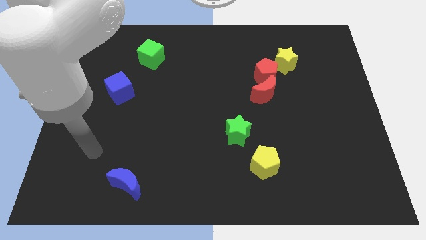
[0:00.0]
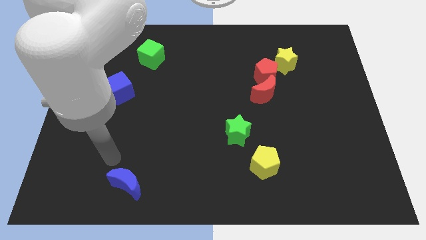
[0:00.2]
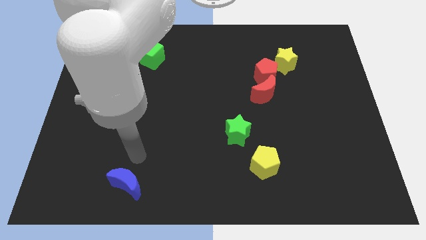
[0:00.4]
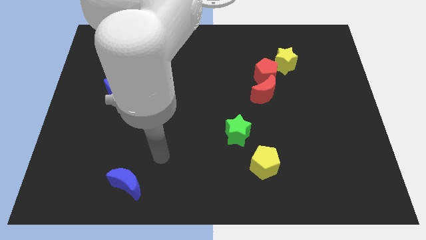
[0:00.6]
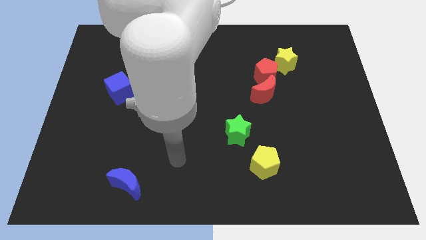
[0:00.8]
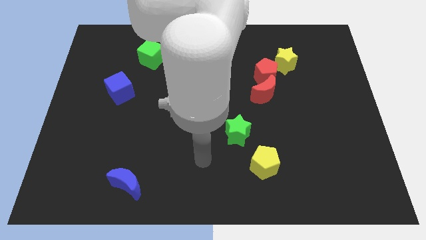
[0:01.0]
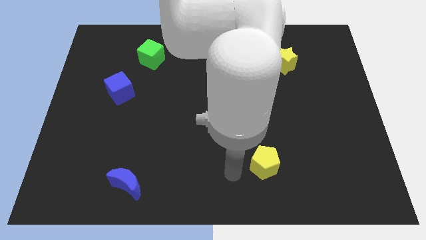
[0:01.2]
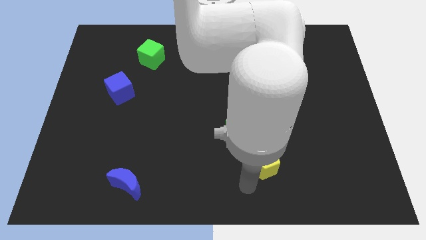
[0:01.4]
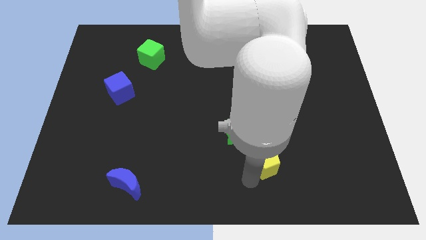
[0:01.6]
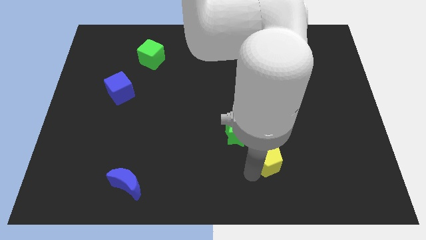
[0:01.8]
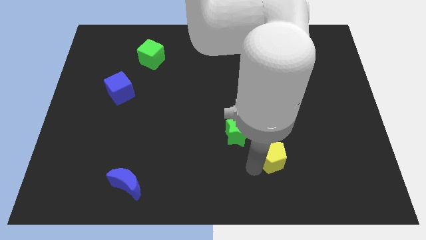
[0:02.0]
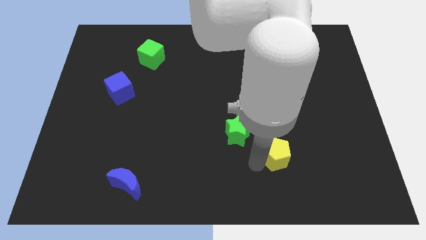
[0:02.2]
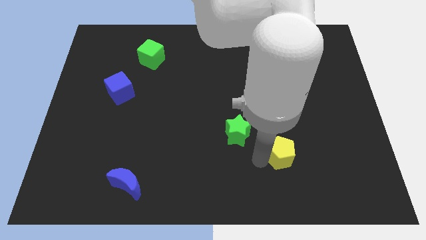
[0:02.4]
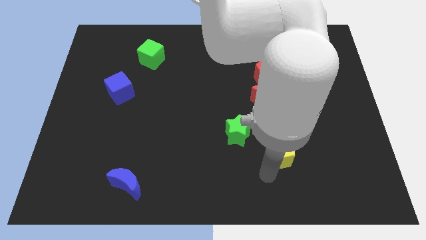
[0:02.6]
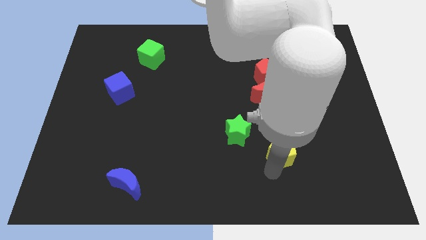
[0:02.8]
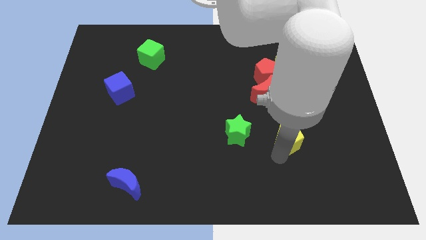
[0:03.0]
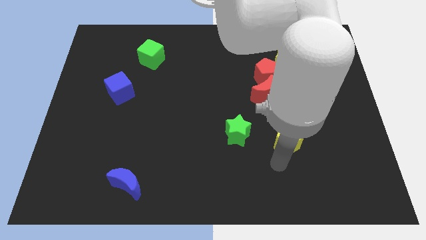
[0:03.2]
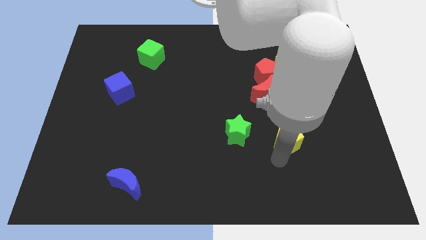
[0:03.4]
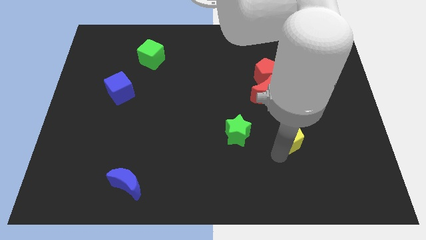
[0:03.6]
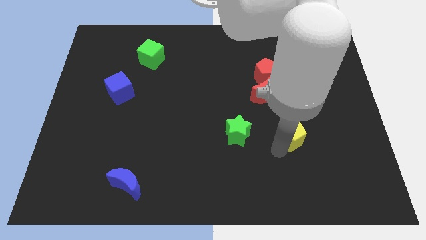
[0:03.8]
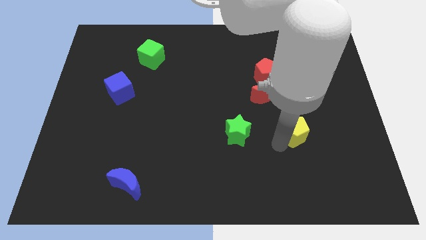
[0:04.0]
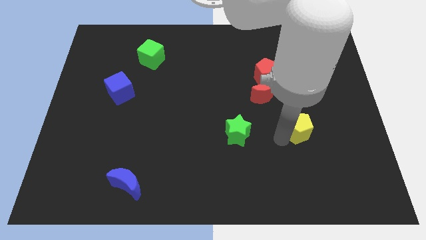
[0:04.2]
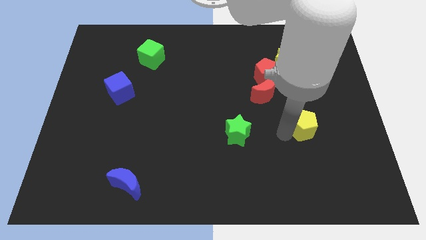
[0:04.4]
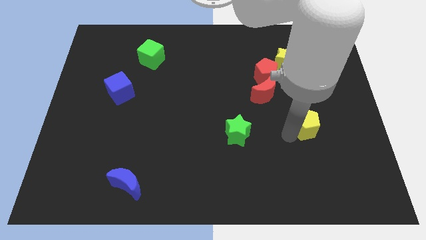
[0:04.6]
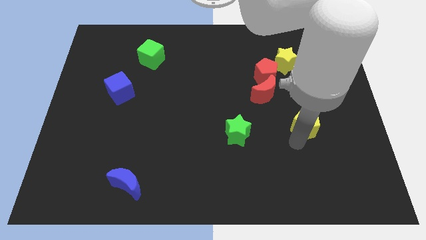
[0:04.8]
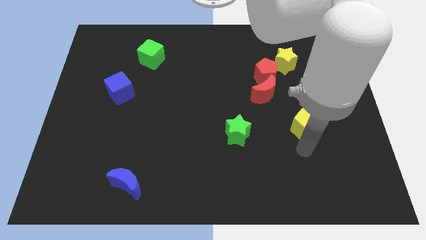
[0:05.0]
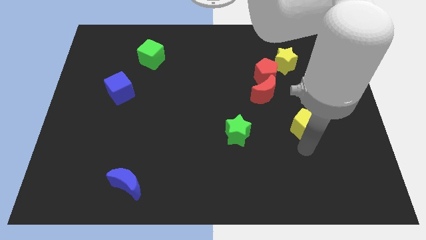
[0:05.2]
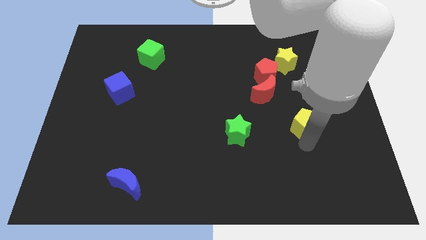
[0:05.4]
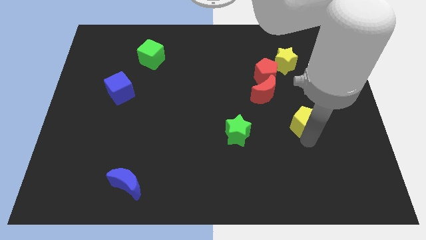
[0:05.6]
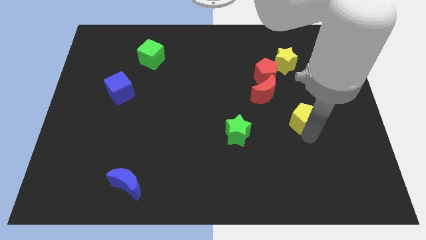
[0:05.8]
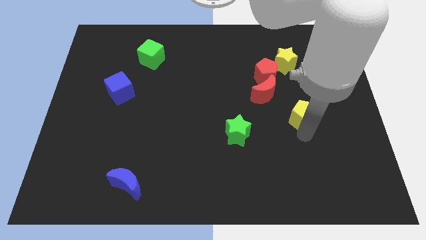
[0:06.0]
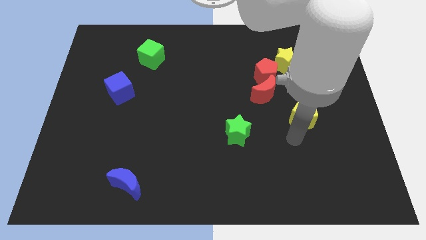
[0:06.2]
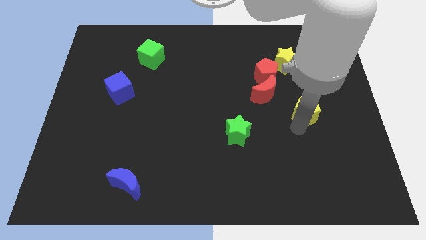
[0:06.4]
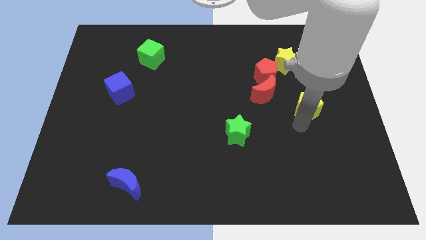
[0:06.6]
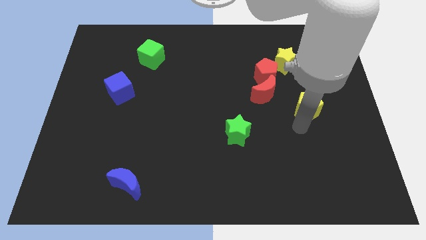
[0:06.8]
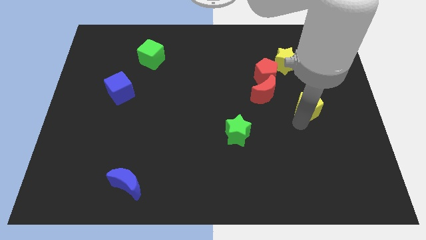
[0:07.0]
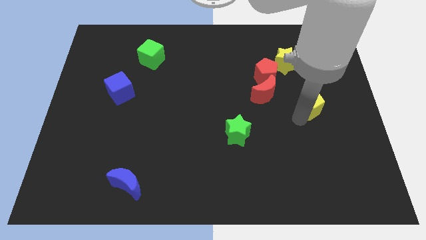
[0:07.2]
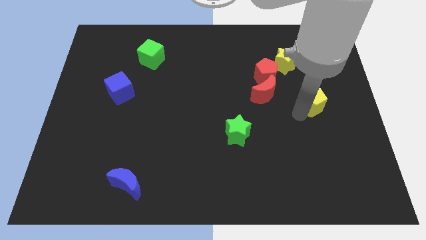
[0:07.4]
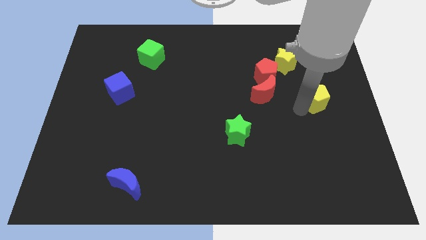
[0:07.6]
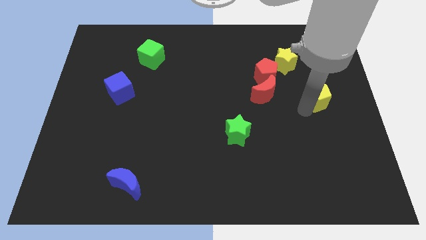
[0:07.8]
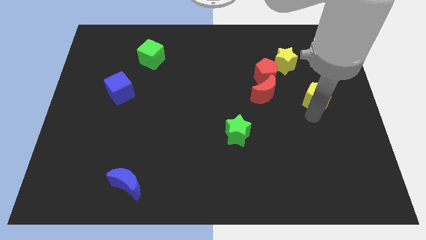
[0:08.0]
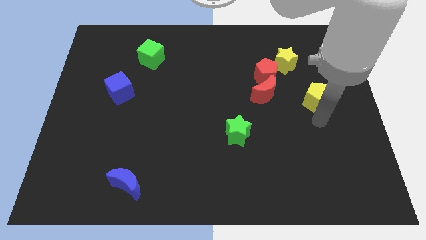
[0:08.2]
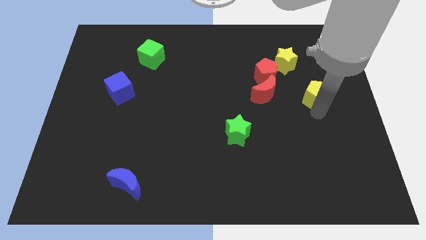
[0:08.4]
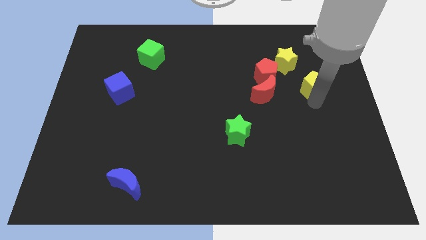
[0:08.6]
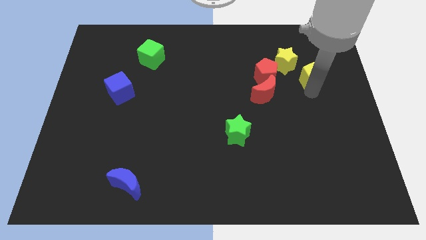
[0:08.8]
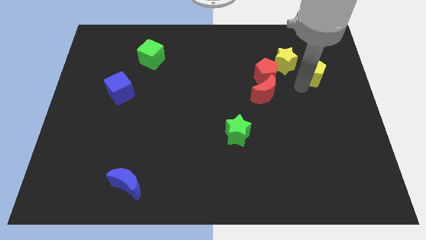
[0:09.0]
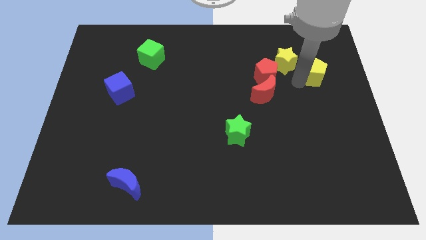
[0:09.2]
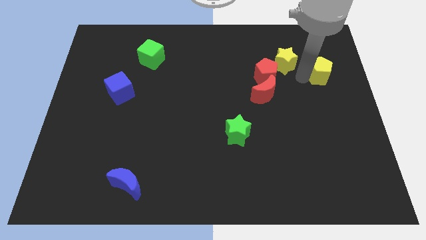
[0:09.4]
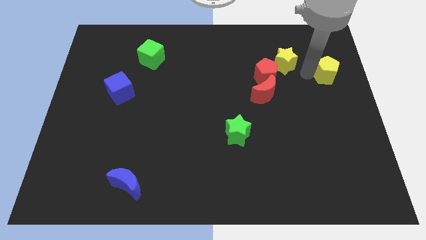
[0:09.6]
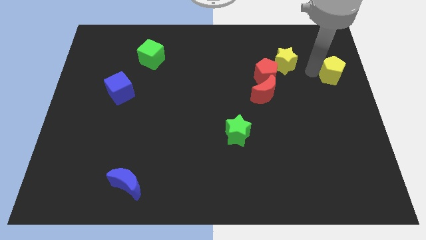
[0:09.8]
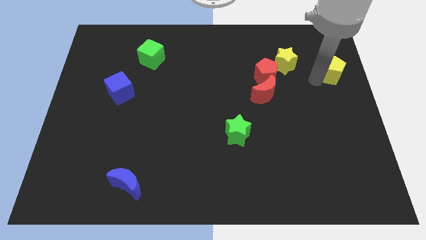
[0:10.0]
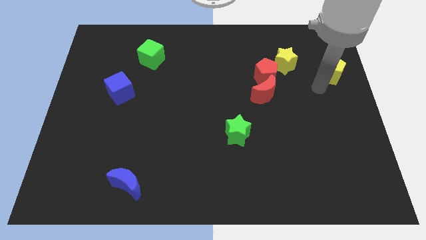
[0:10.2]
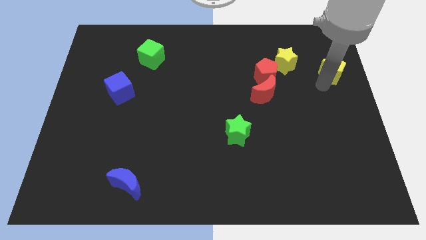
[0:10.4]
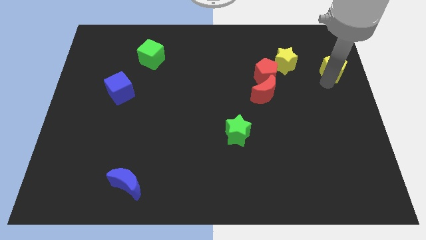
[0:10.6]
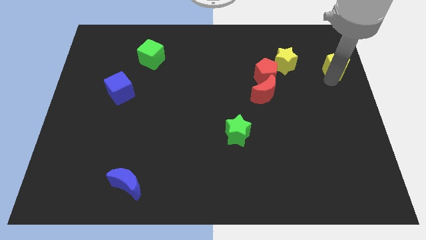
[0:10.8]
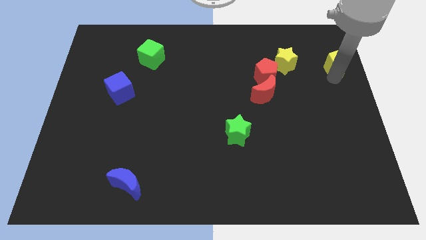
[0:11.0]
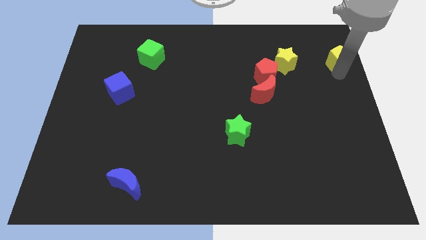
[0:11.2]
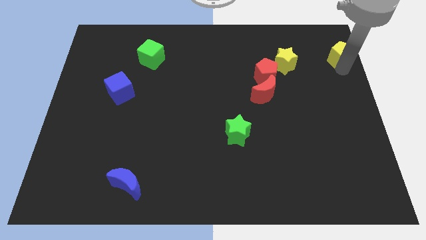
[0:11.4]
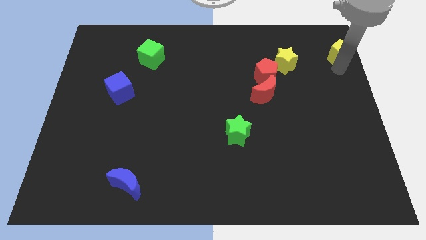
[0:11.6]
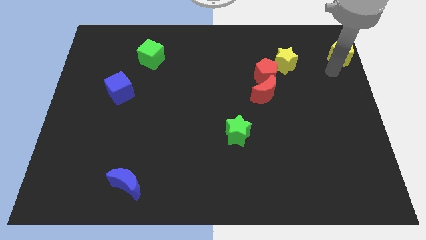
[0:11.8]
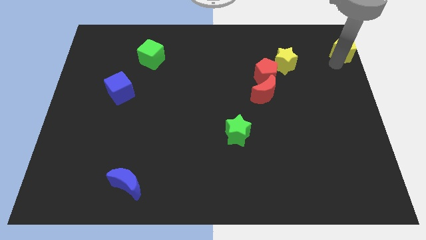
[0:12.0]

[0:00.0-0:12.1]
move the yellow pentagon to the upper right corner

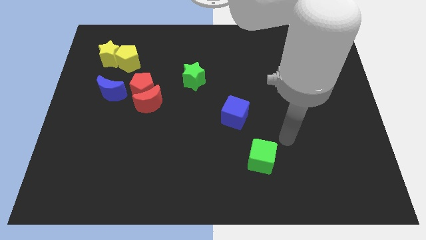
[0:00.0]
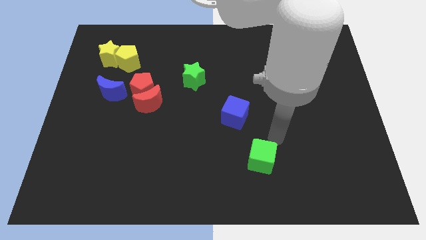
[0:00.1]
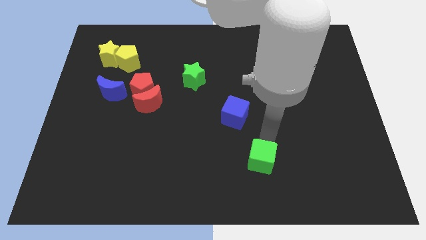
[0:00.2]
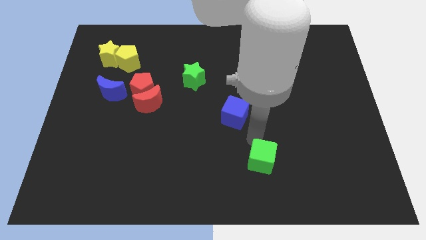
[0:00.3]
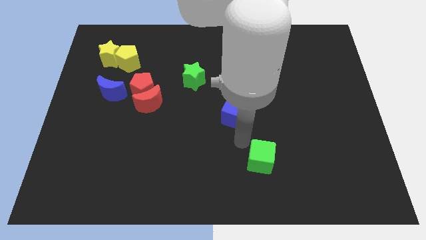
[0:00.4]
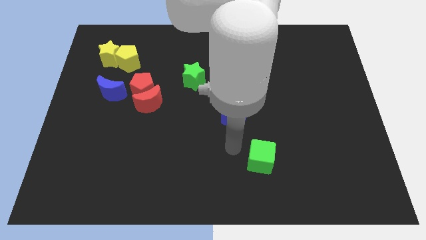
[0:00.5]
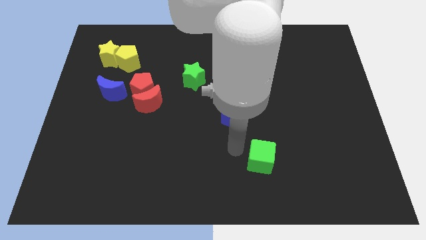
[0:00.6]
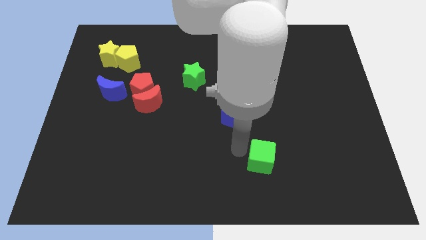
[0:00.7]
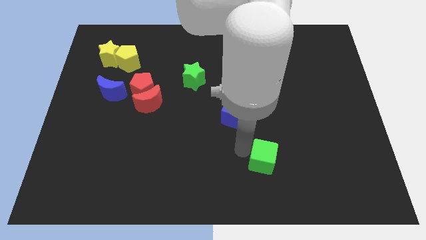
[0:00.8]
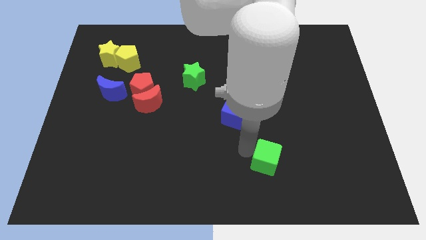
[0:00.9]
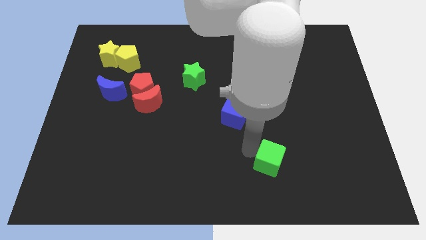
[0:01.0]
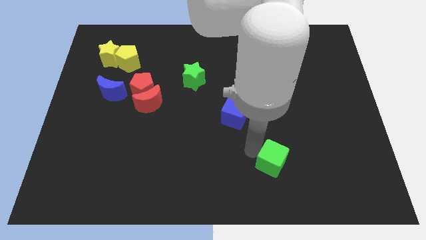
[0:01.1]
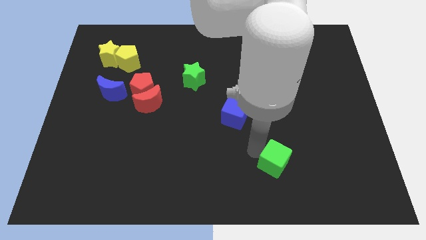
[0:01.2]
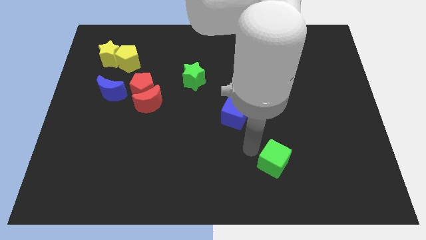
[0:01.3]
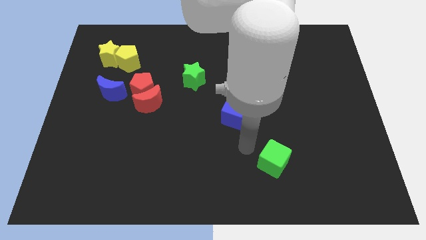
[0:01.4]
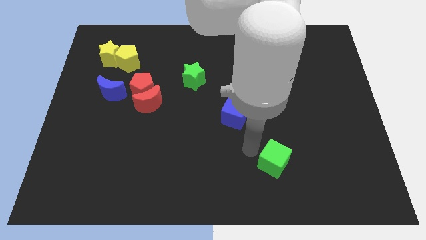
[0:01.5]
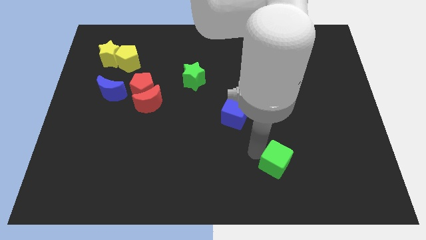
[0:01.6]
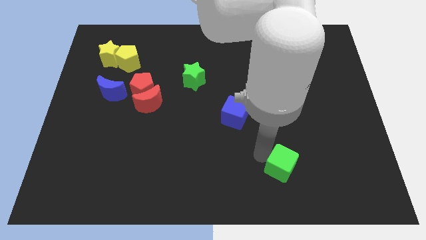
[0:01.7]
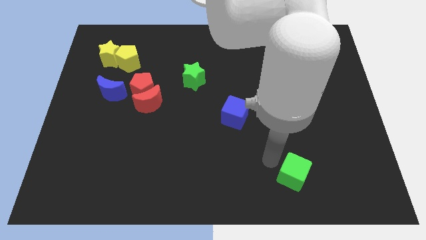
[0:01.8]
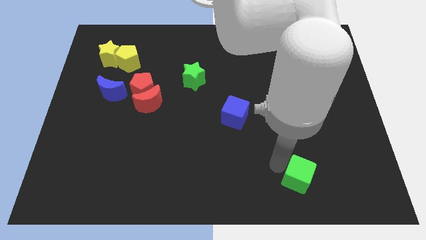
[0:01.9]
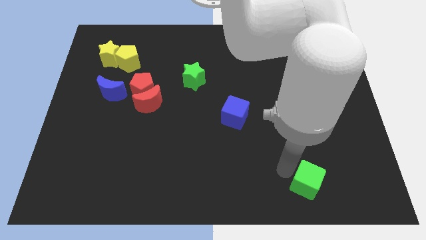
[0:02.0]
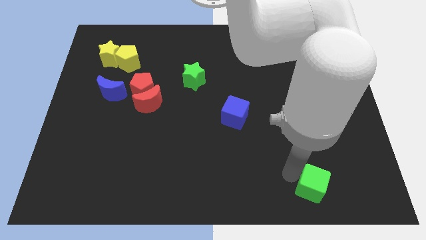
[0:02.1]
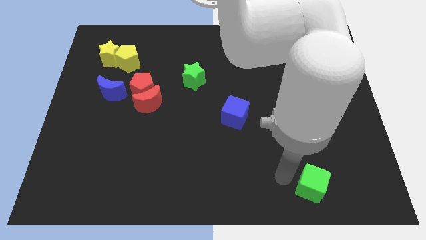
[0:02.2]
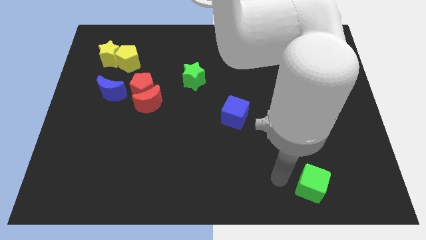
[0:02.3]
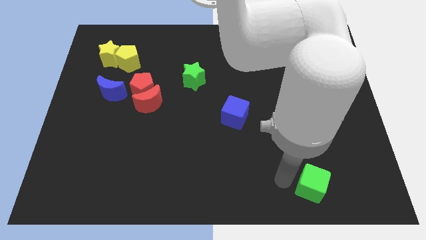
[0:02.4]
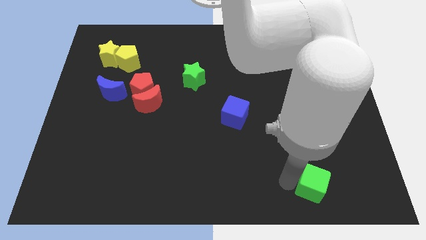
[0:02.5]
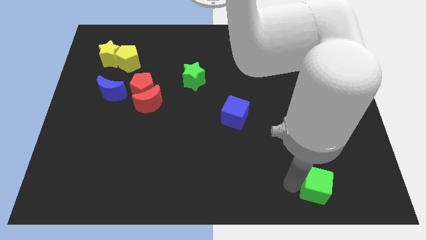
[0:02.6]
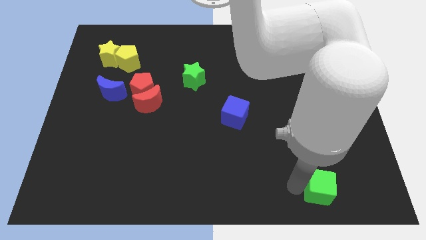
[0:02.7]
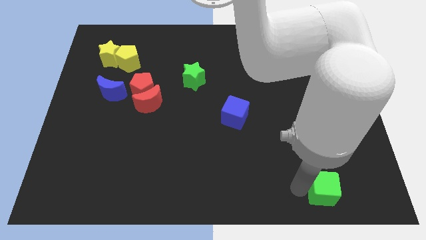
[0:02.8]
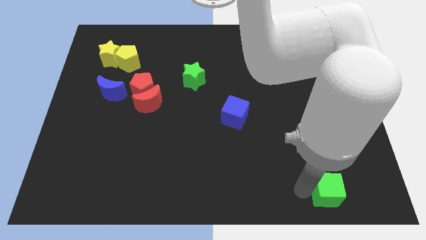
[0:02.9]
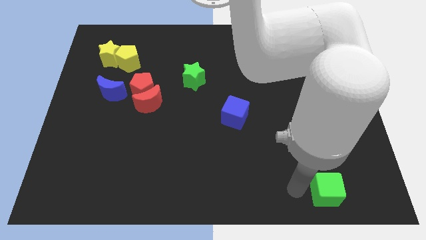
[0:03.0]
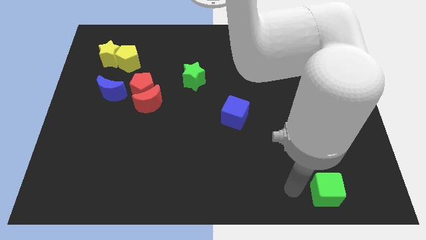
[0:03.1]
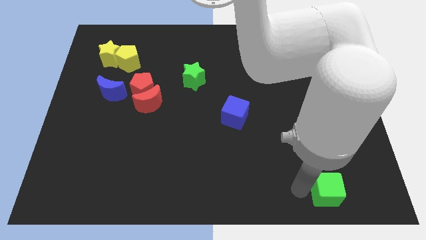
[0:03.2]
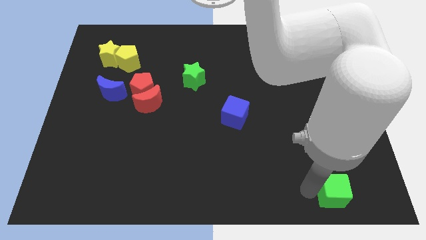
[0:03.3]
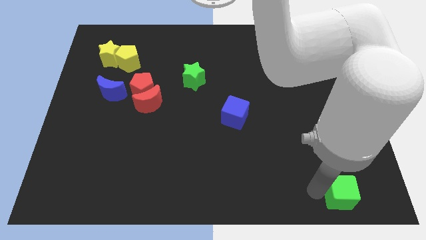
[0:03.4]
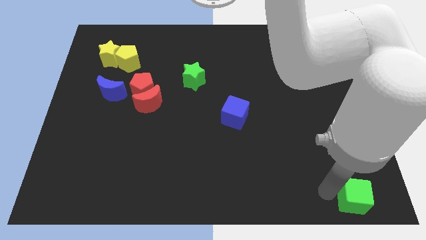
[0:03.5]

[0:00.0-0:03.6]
put the green cube to the bottom right of the board
